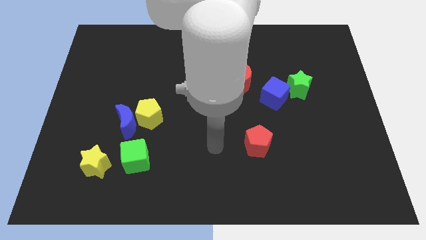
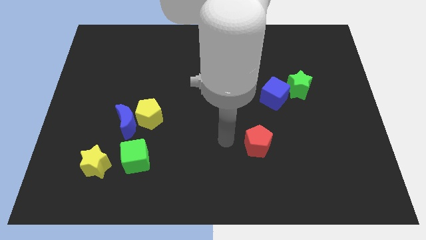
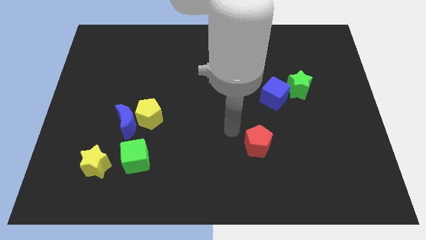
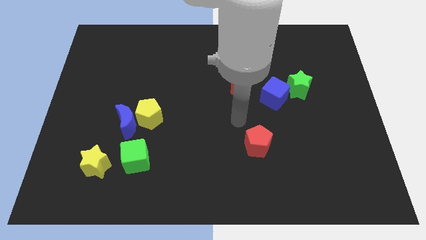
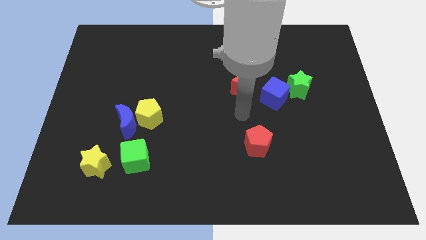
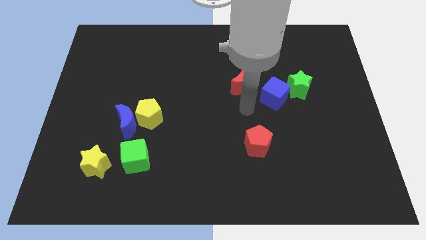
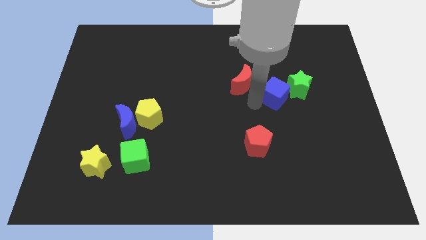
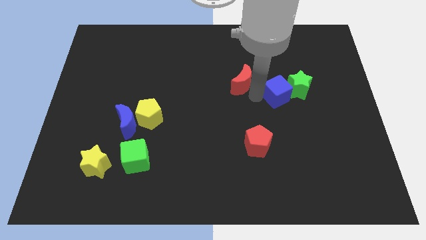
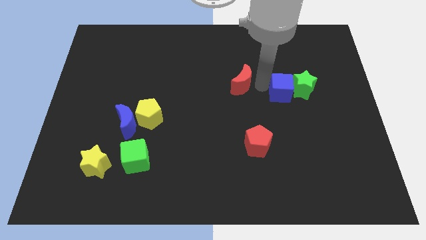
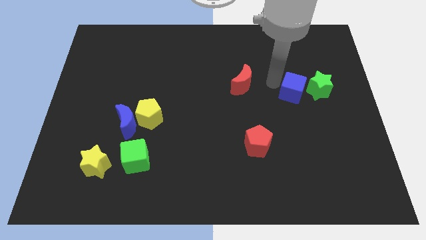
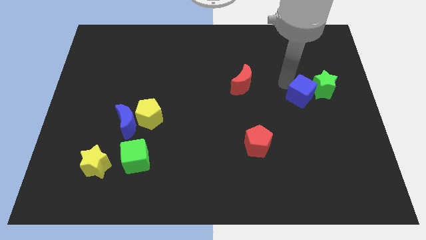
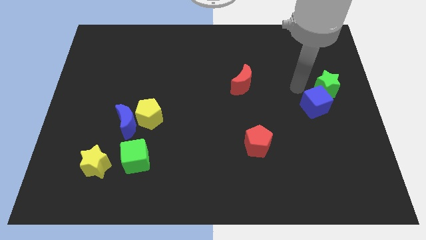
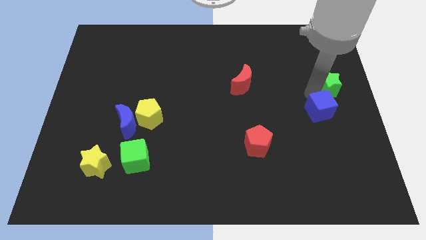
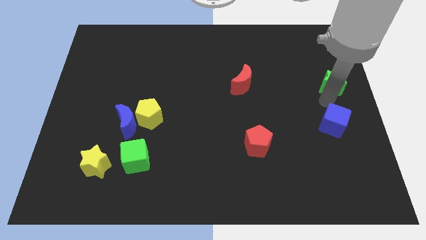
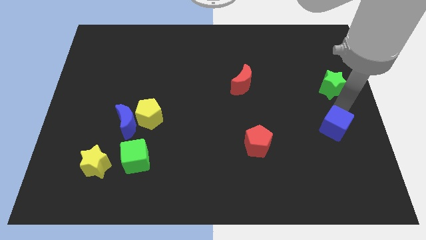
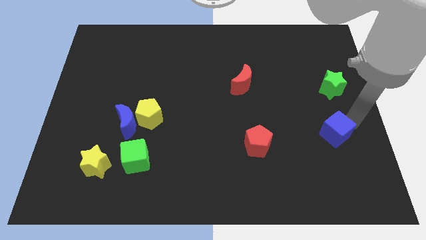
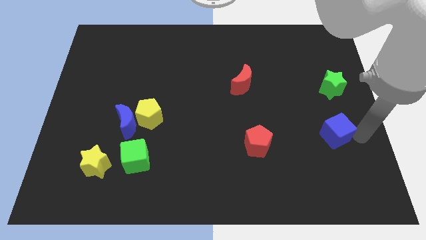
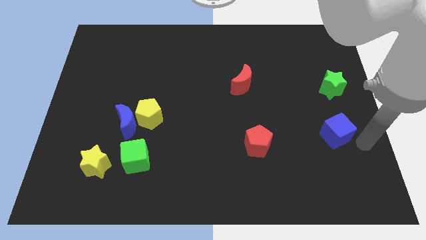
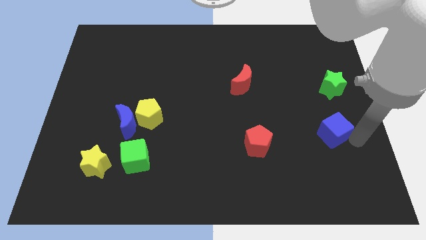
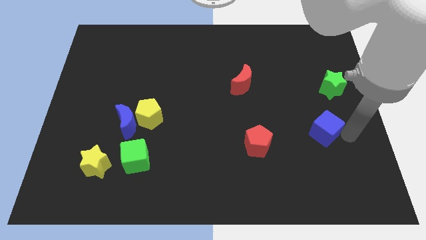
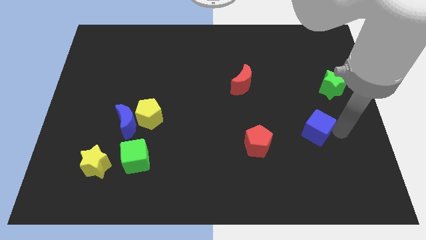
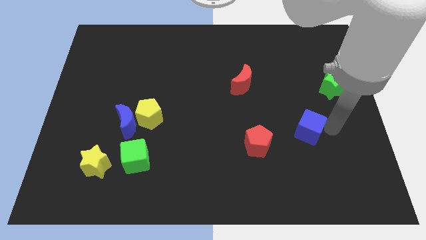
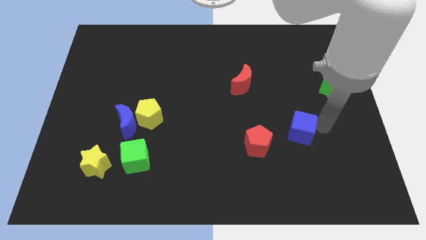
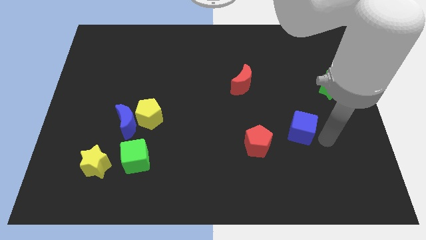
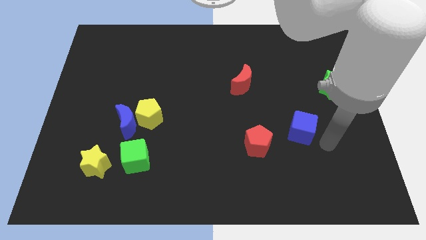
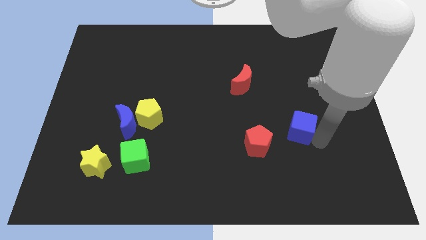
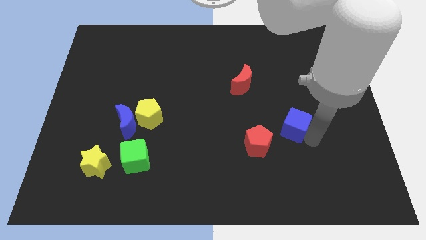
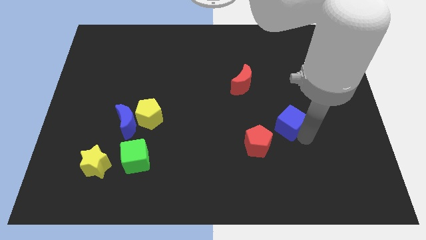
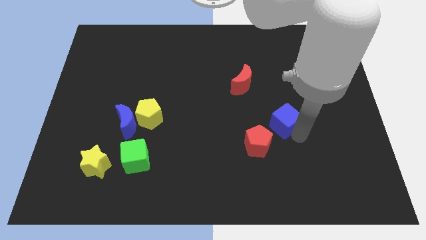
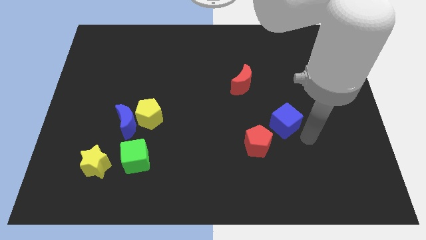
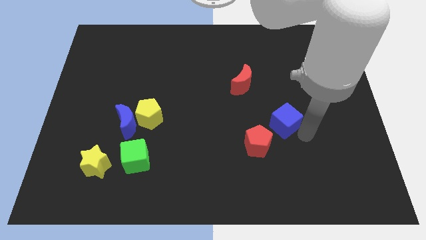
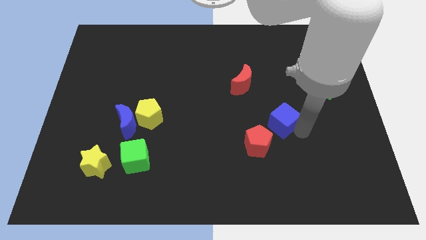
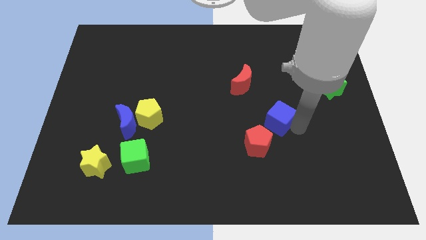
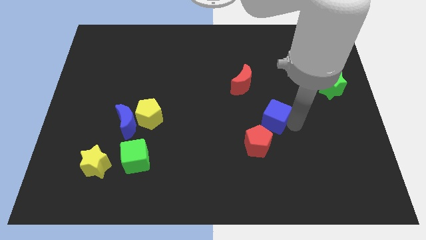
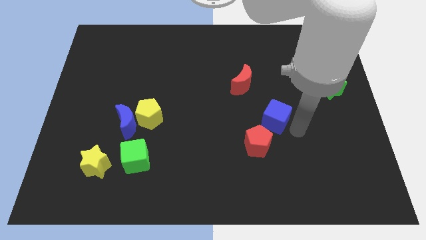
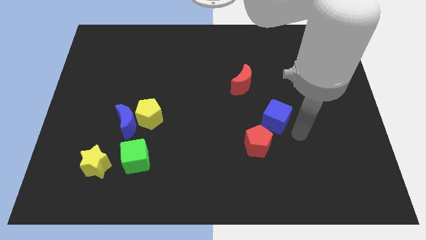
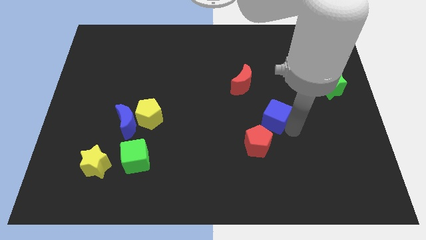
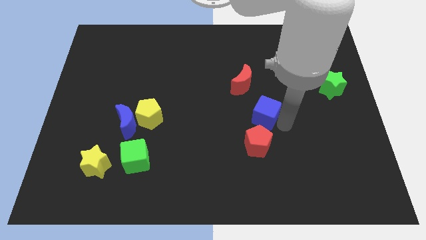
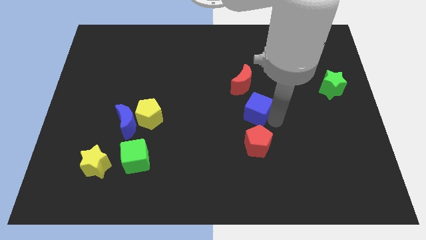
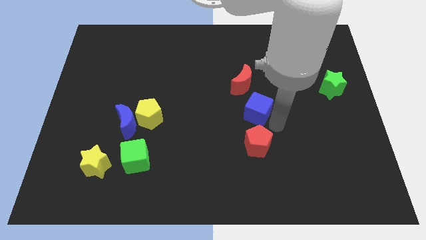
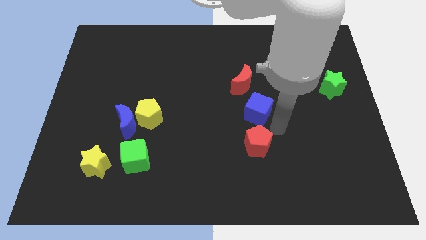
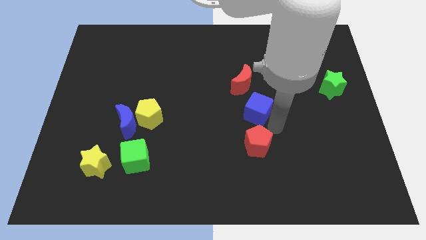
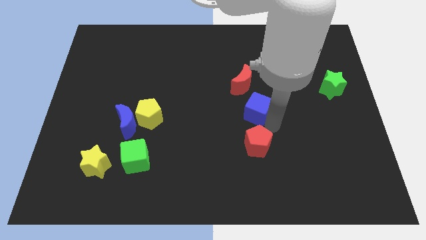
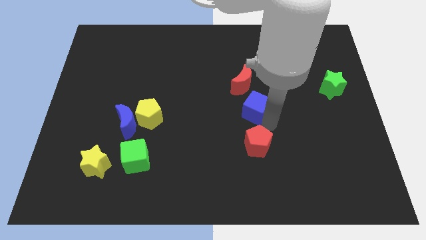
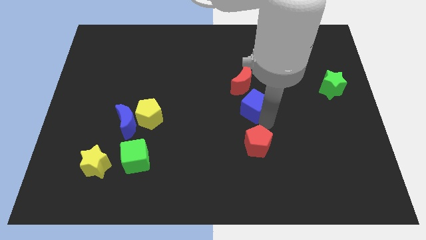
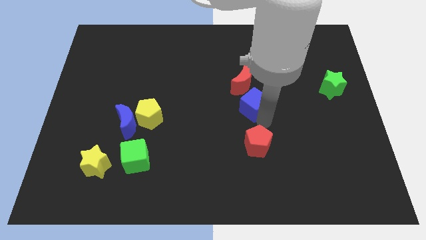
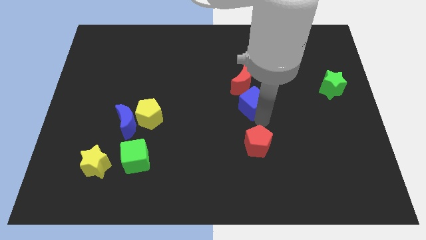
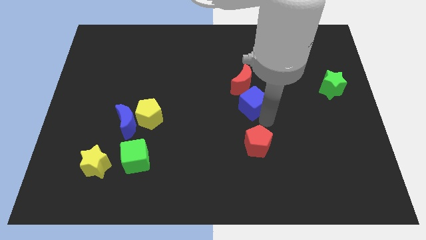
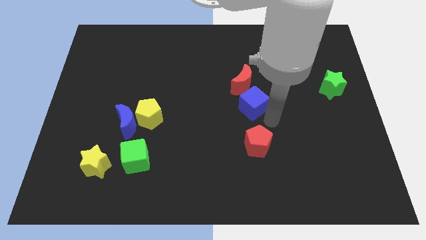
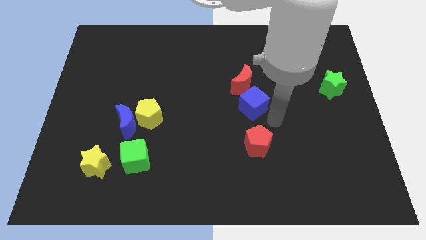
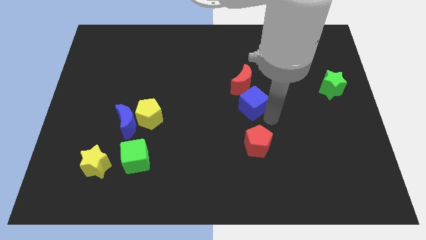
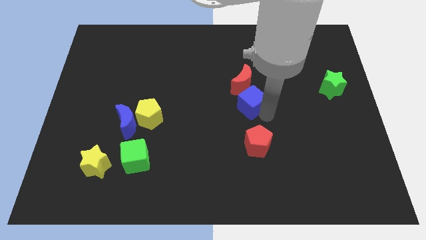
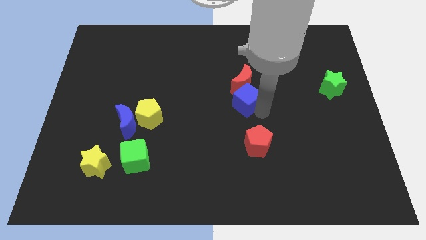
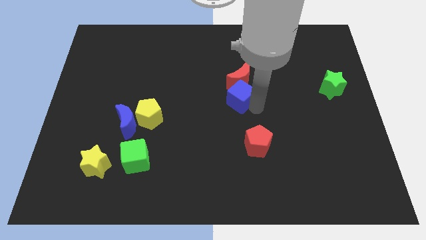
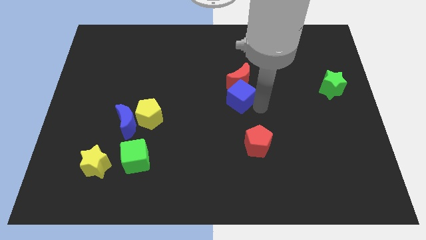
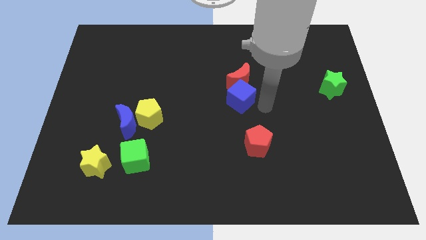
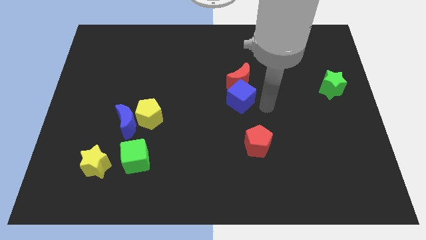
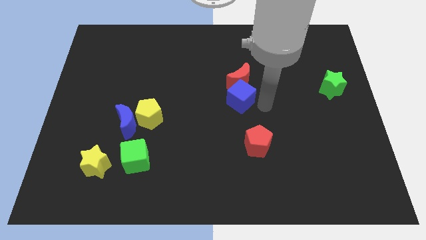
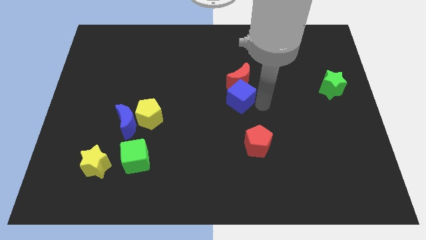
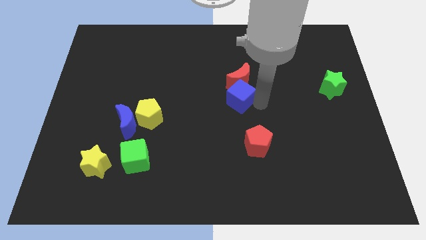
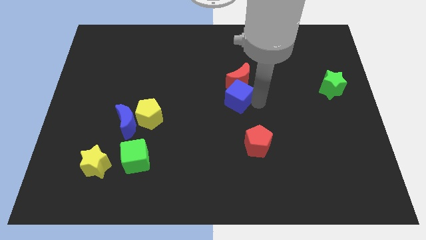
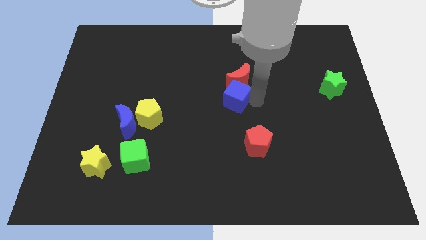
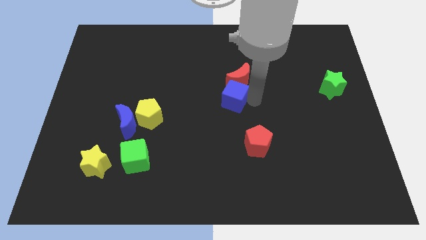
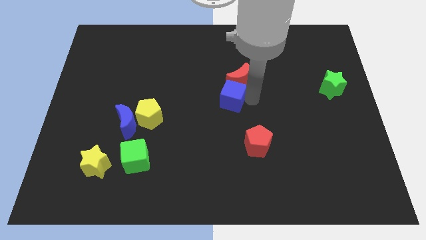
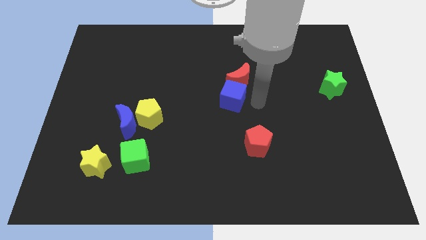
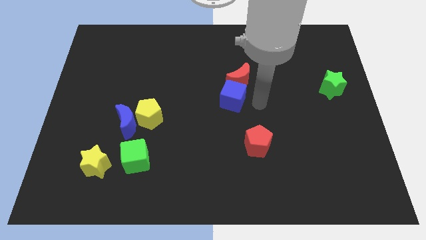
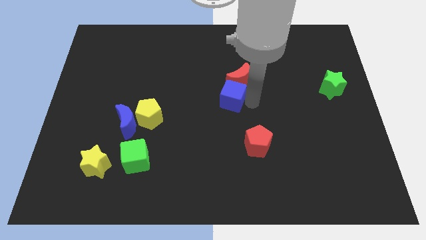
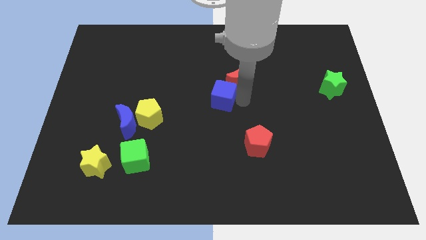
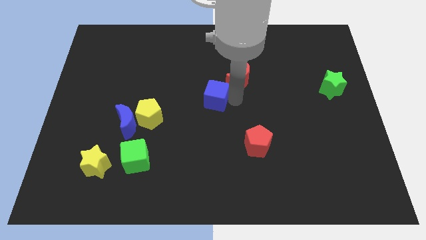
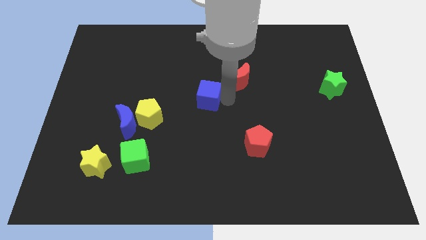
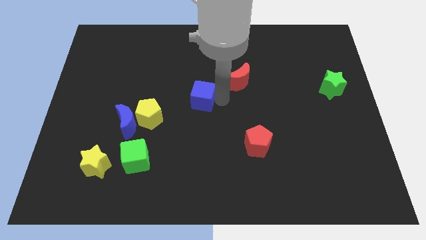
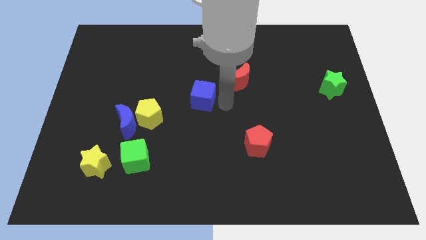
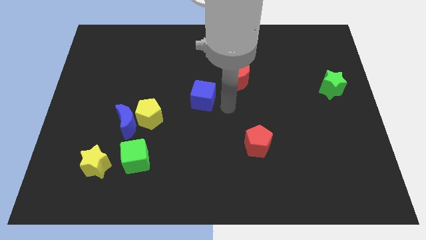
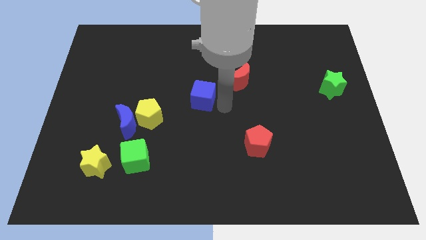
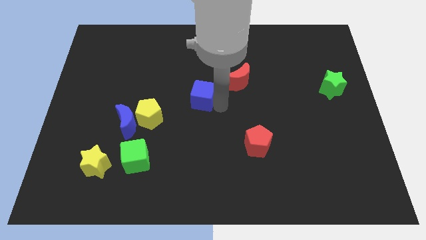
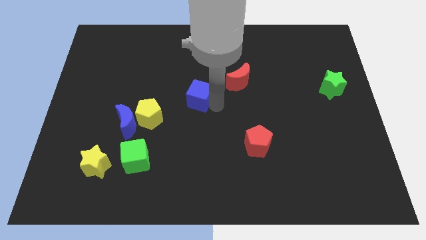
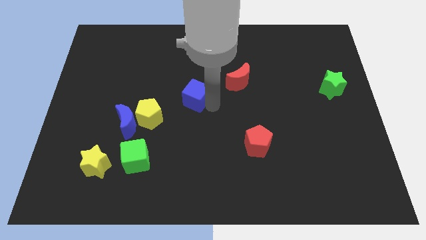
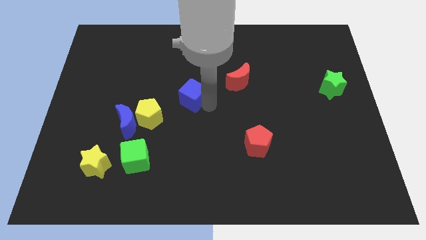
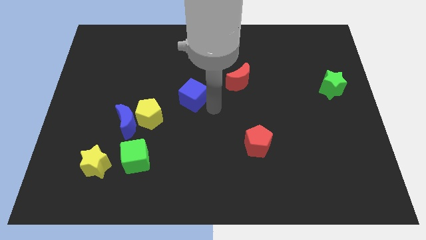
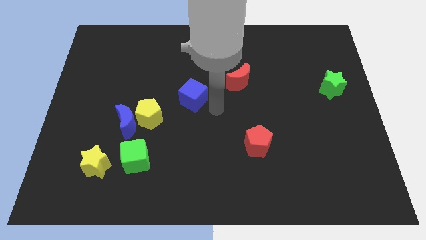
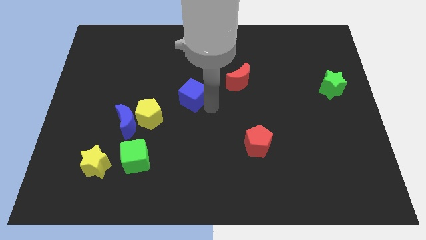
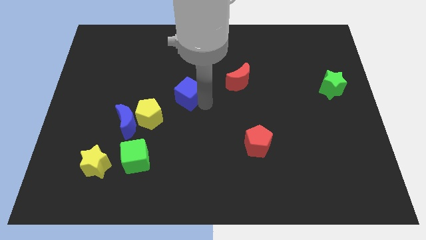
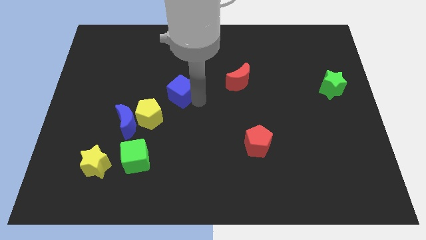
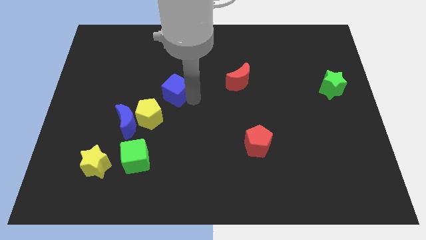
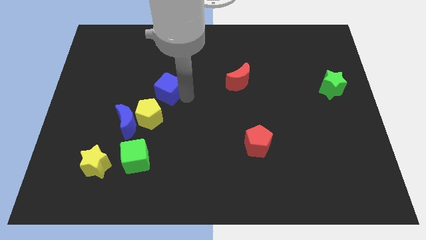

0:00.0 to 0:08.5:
slide the blue cube to the top side of the yellow pentagon
